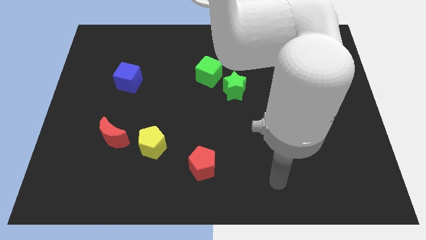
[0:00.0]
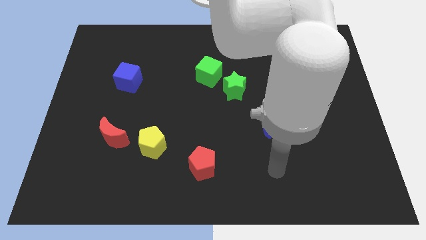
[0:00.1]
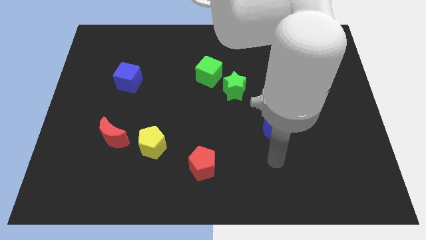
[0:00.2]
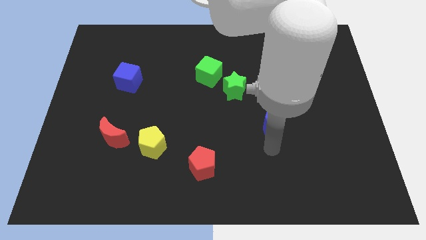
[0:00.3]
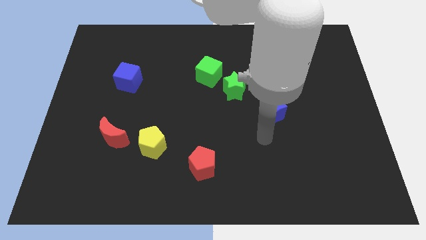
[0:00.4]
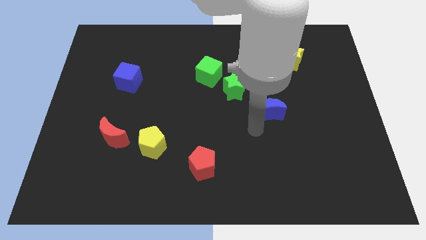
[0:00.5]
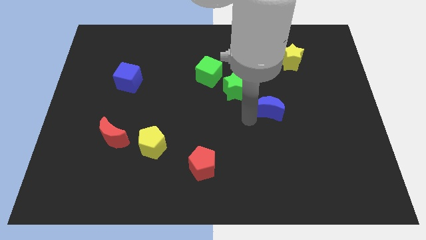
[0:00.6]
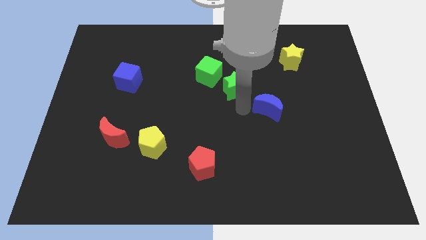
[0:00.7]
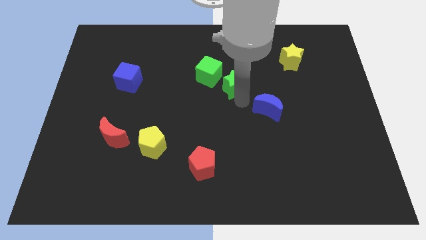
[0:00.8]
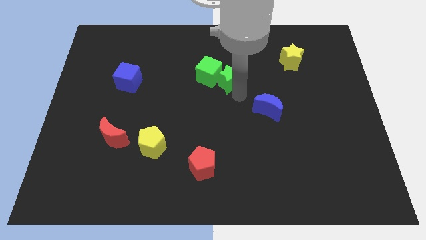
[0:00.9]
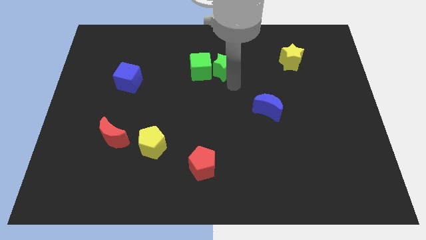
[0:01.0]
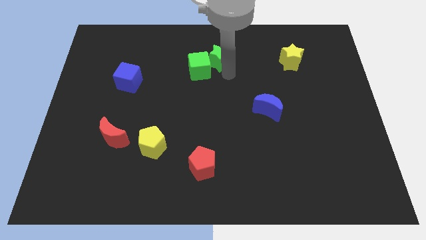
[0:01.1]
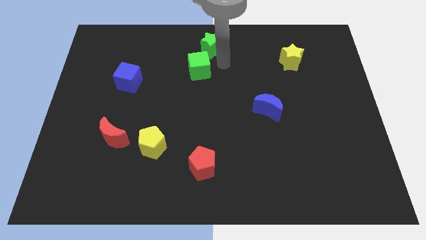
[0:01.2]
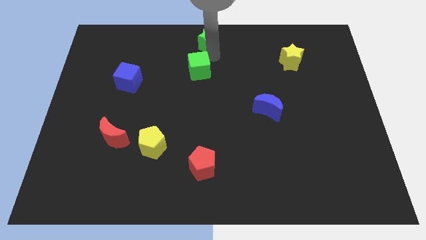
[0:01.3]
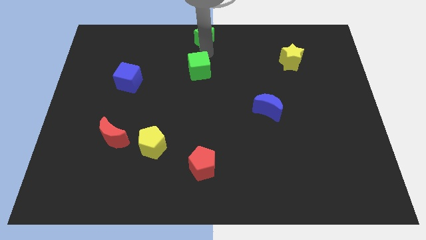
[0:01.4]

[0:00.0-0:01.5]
move the green cube away from the green star

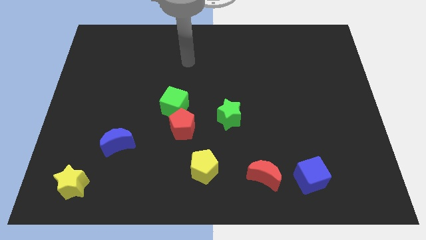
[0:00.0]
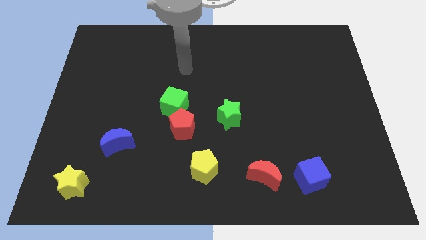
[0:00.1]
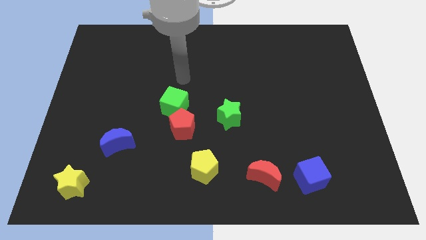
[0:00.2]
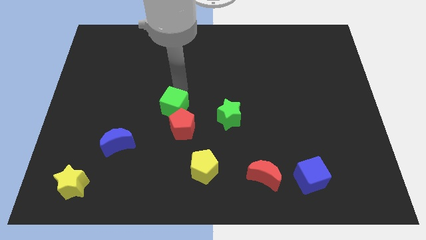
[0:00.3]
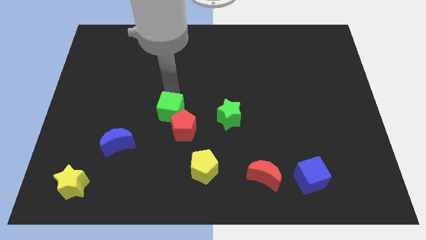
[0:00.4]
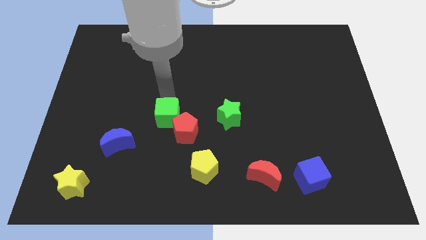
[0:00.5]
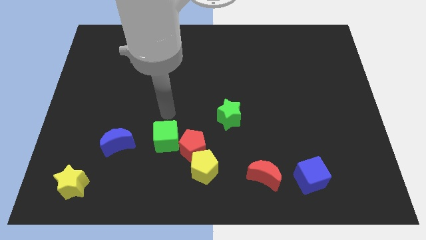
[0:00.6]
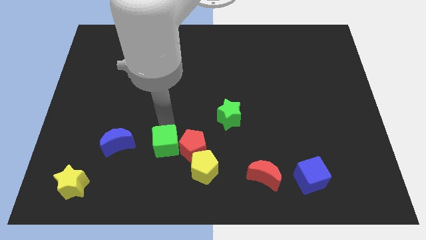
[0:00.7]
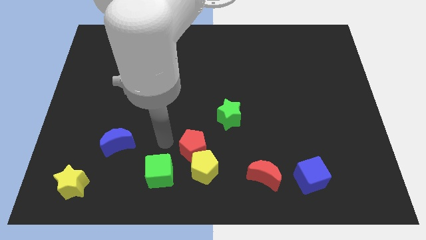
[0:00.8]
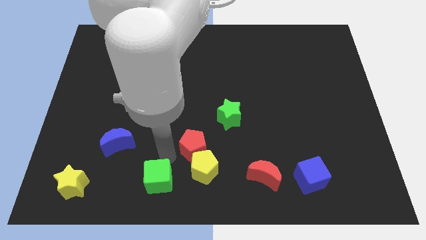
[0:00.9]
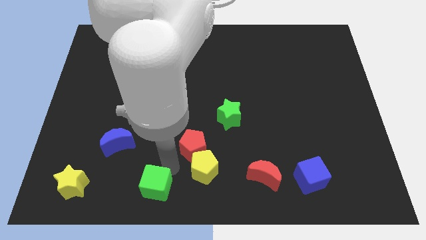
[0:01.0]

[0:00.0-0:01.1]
move the red pentagon away from the green cube

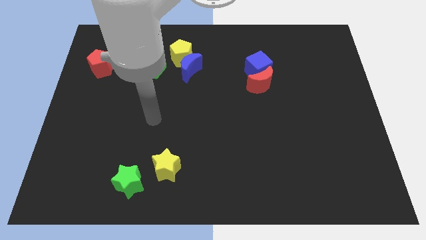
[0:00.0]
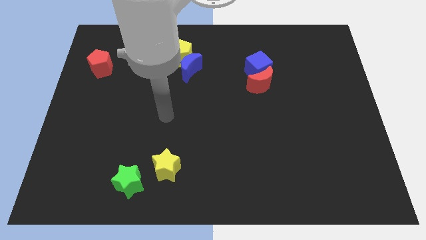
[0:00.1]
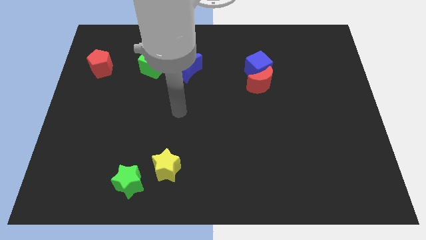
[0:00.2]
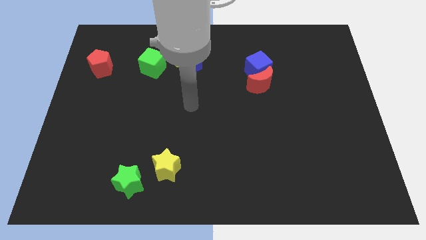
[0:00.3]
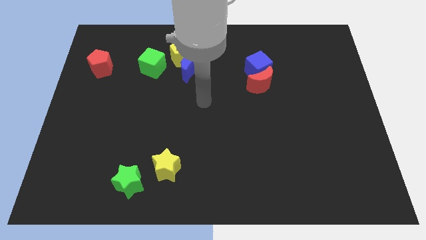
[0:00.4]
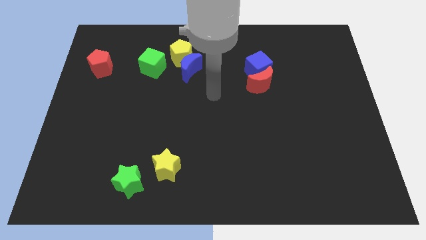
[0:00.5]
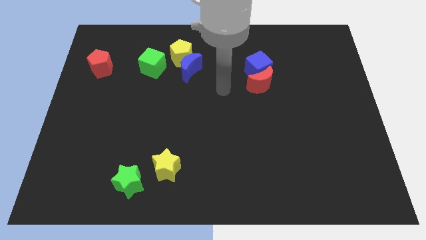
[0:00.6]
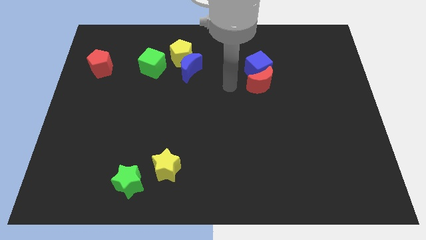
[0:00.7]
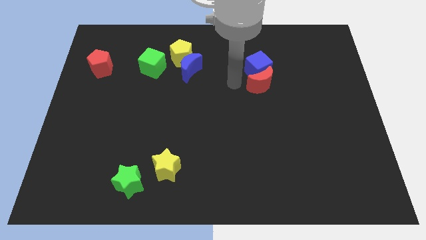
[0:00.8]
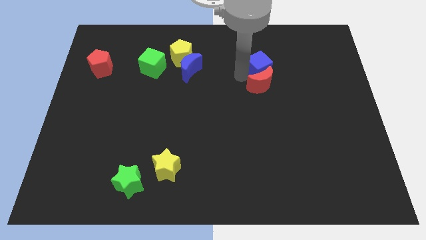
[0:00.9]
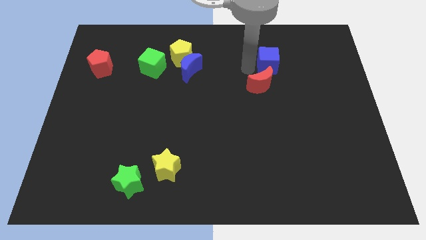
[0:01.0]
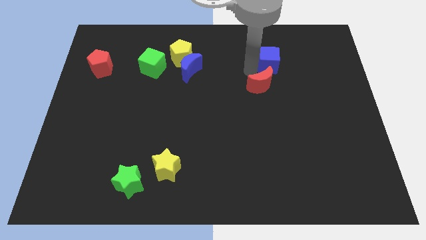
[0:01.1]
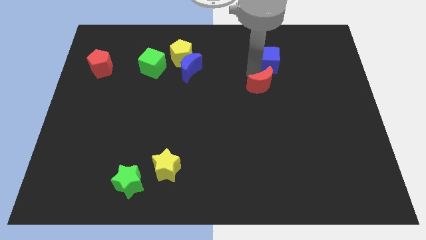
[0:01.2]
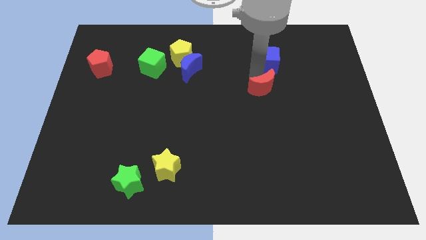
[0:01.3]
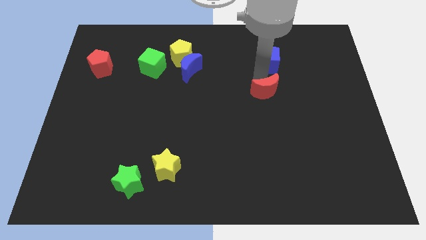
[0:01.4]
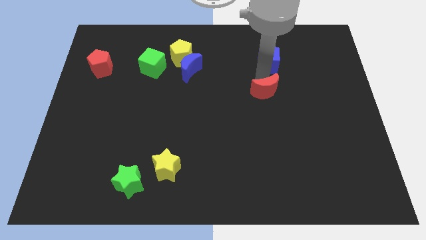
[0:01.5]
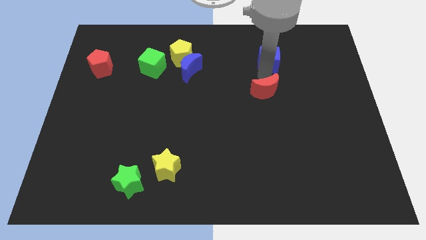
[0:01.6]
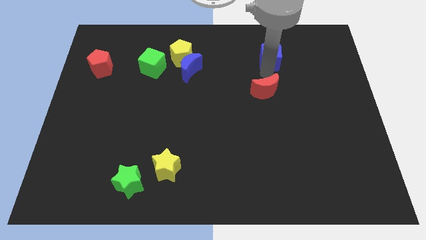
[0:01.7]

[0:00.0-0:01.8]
move the red moon away from the blue cube

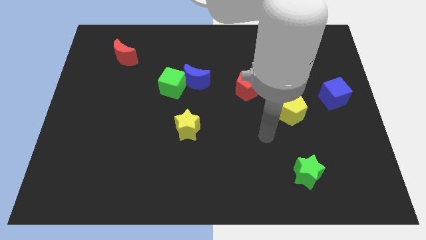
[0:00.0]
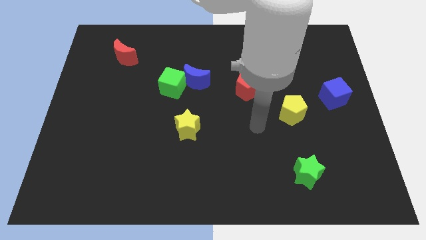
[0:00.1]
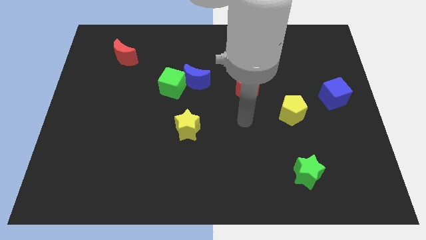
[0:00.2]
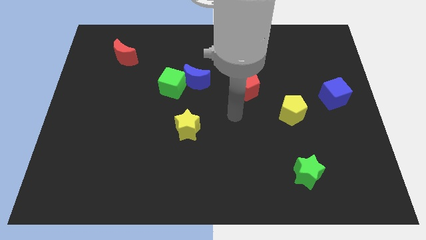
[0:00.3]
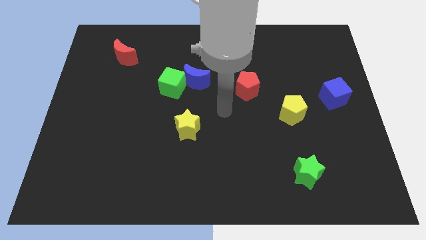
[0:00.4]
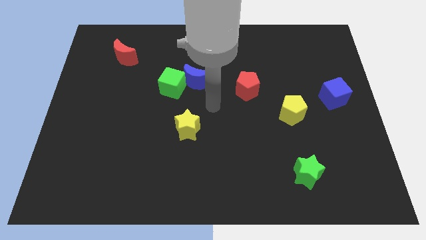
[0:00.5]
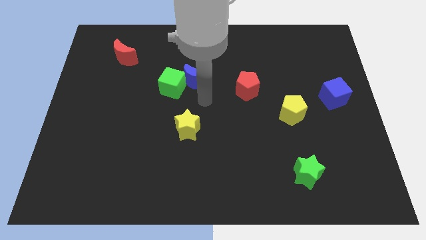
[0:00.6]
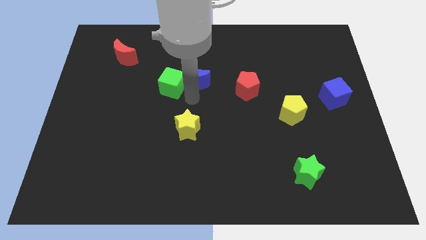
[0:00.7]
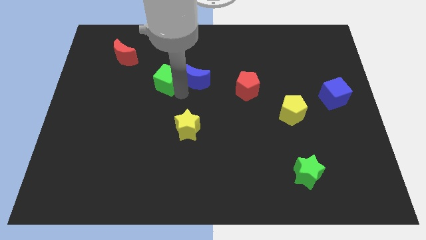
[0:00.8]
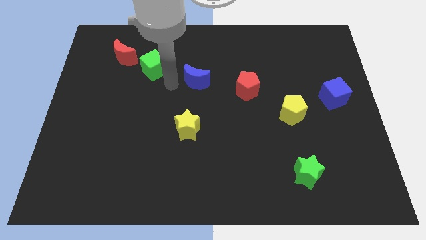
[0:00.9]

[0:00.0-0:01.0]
separate the blue moon from the green cube

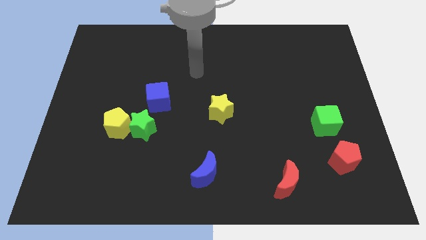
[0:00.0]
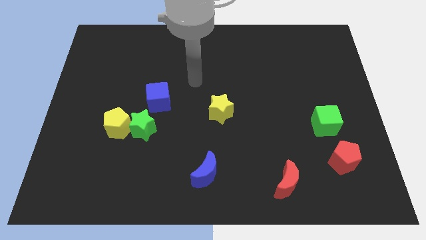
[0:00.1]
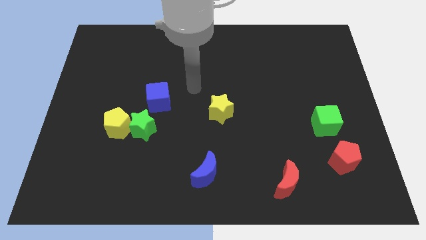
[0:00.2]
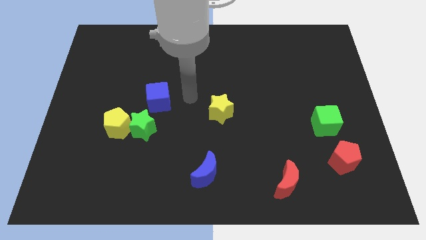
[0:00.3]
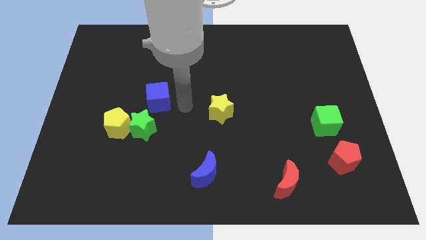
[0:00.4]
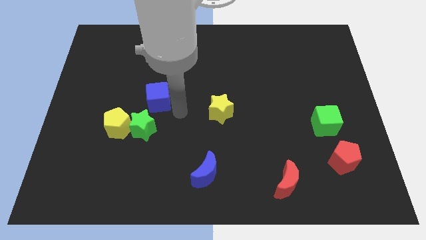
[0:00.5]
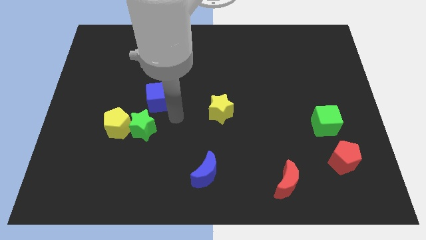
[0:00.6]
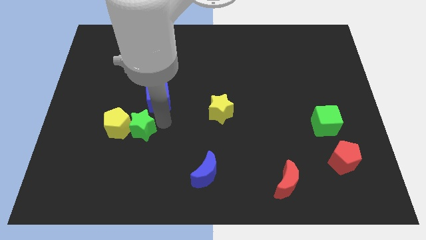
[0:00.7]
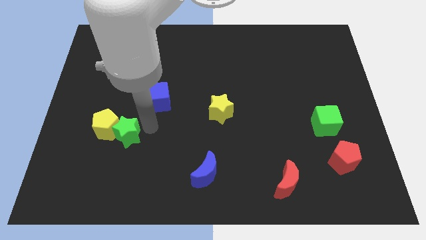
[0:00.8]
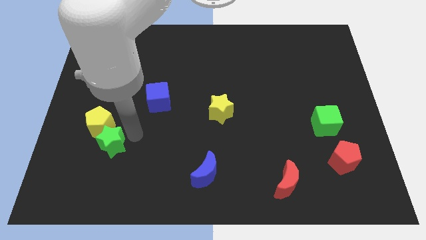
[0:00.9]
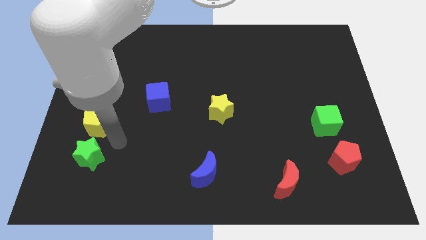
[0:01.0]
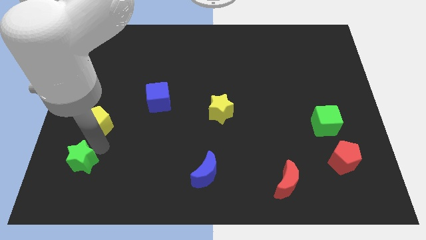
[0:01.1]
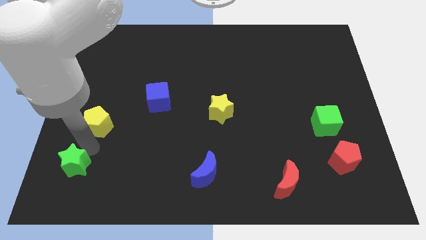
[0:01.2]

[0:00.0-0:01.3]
separate the yellow pentagon from the green star

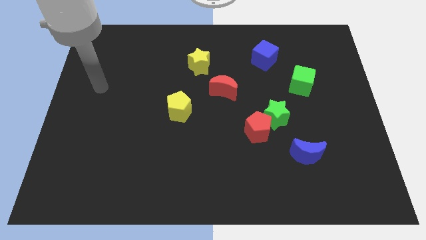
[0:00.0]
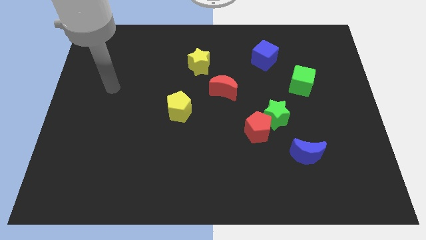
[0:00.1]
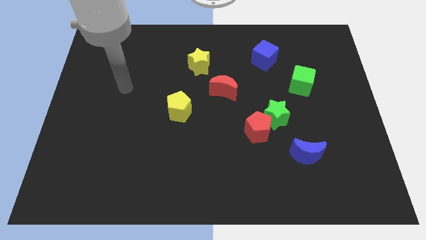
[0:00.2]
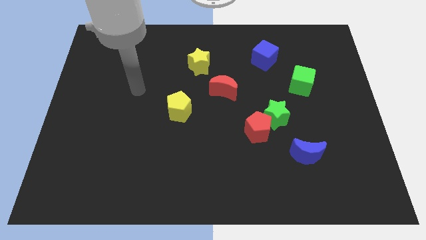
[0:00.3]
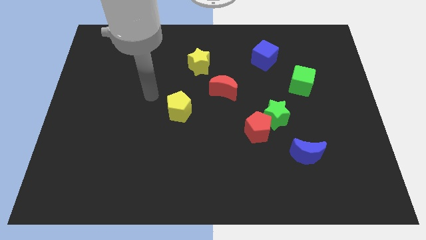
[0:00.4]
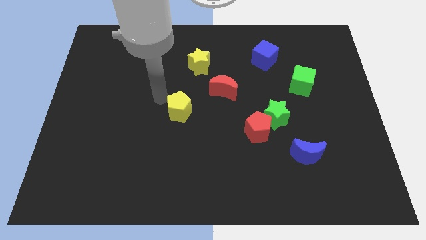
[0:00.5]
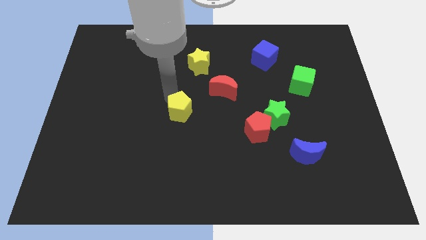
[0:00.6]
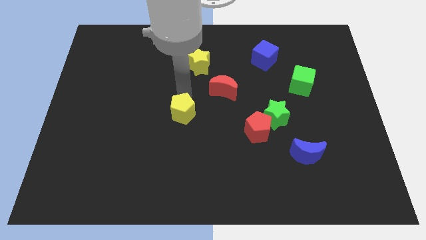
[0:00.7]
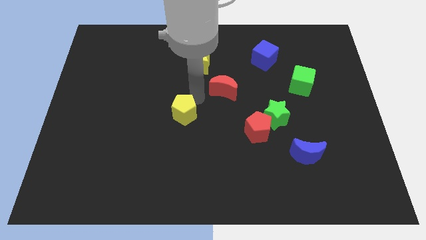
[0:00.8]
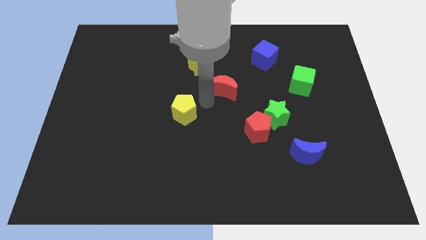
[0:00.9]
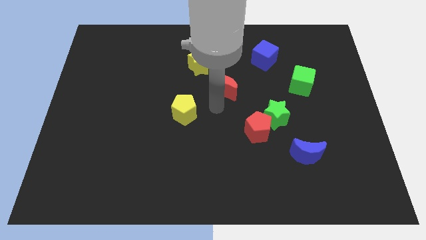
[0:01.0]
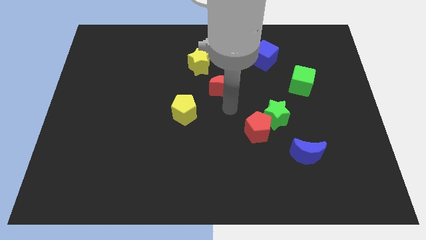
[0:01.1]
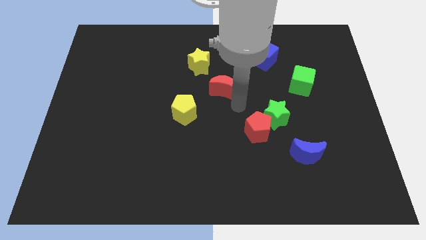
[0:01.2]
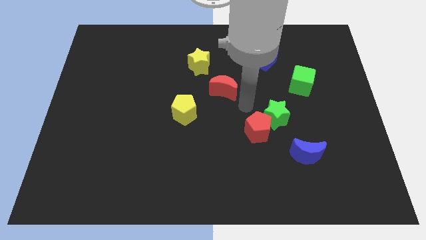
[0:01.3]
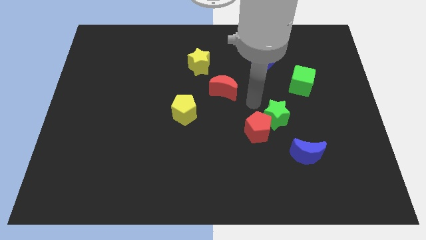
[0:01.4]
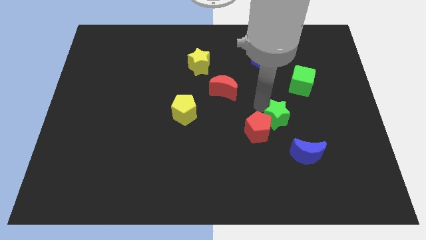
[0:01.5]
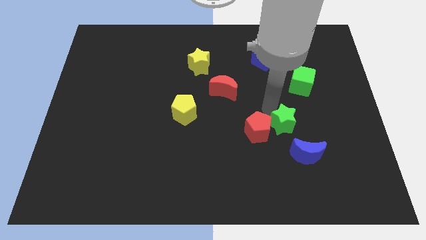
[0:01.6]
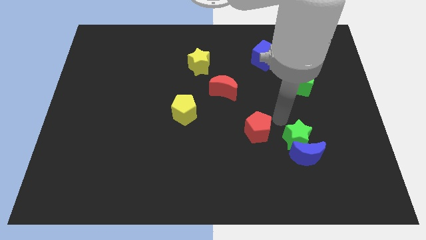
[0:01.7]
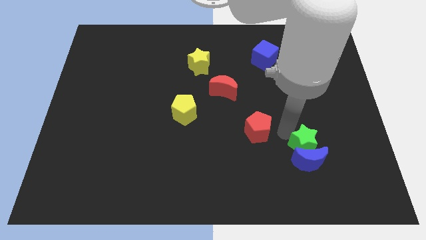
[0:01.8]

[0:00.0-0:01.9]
pull the red pentagon apart from the green star

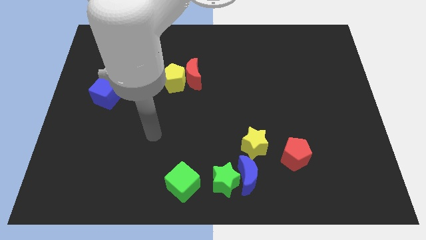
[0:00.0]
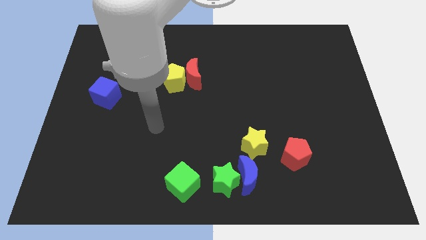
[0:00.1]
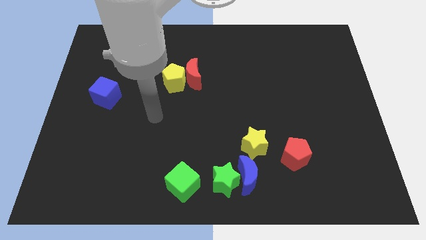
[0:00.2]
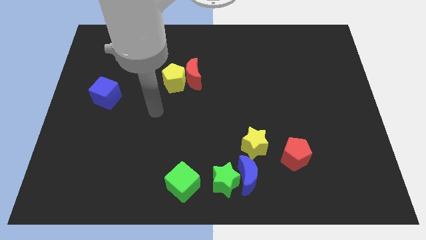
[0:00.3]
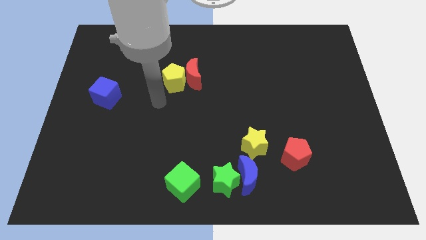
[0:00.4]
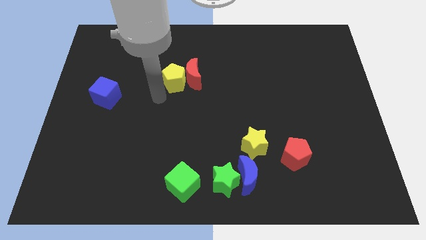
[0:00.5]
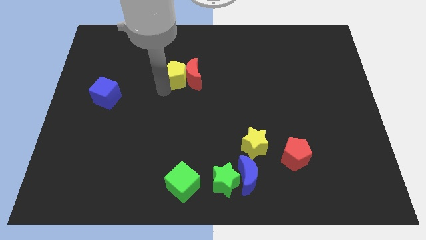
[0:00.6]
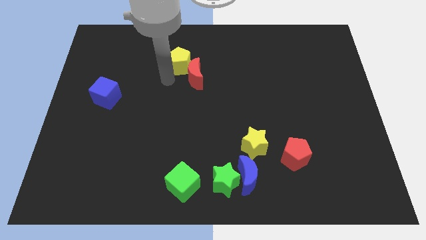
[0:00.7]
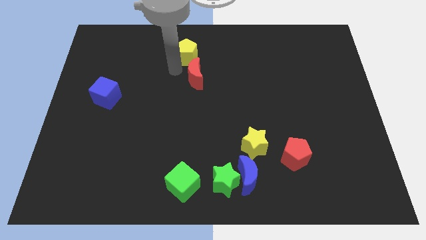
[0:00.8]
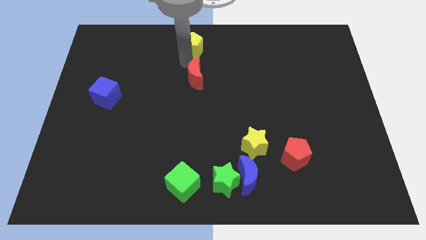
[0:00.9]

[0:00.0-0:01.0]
separate the red moon from the yellow pentagon
